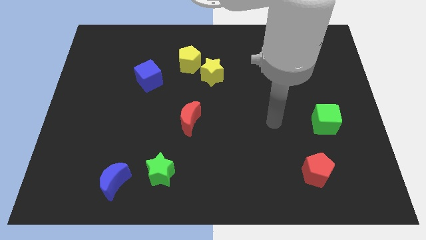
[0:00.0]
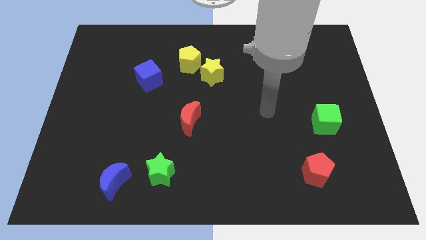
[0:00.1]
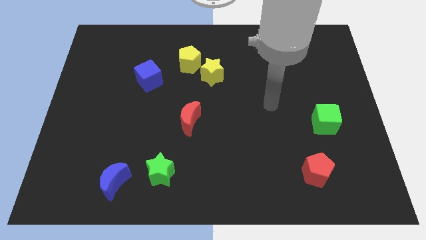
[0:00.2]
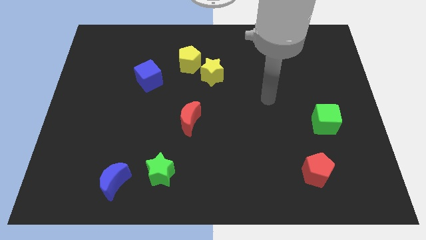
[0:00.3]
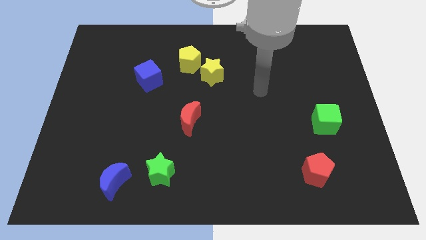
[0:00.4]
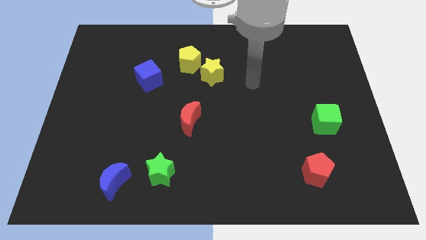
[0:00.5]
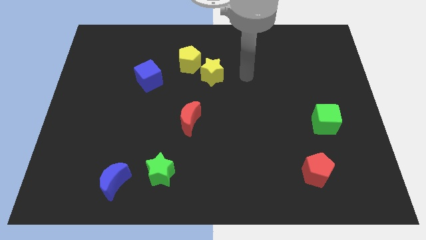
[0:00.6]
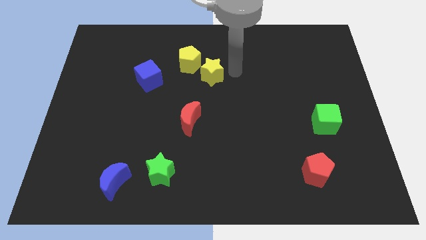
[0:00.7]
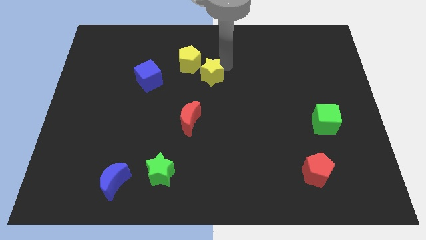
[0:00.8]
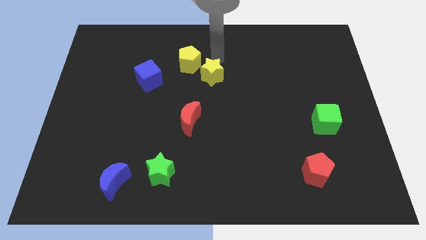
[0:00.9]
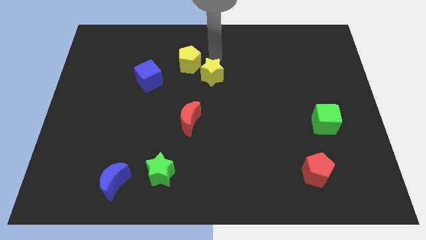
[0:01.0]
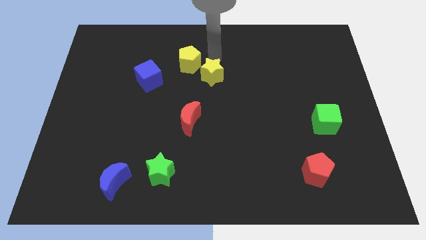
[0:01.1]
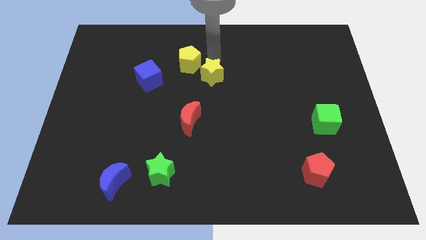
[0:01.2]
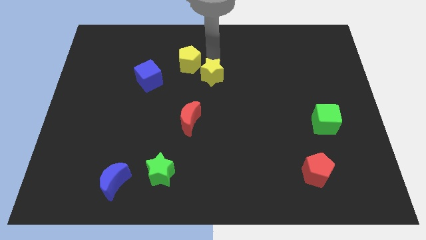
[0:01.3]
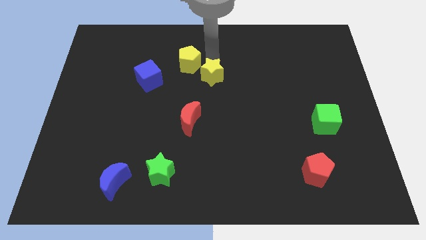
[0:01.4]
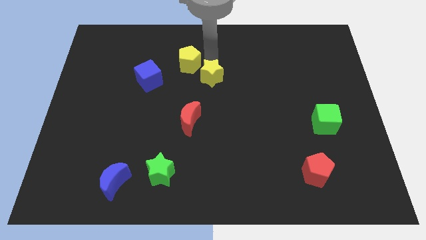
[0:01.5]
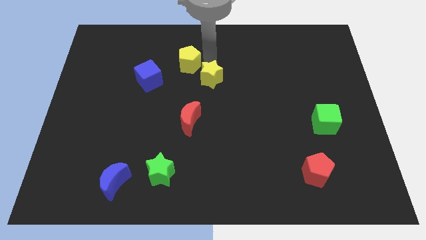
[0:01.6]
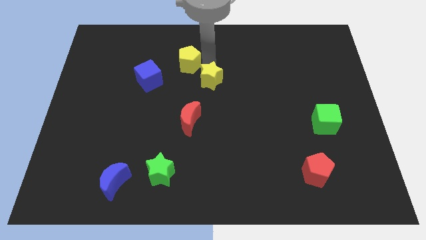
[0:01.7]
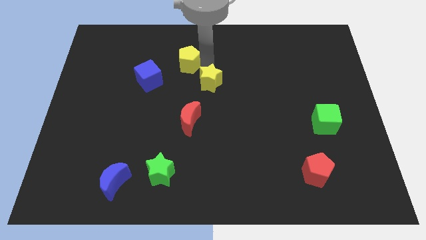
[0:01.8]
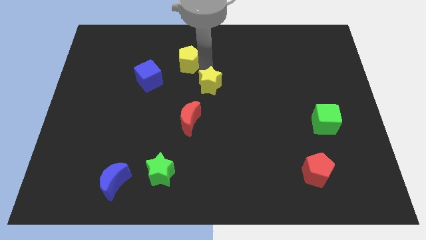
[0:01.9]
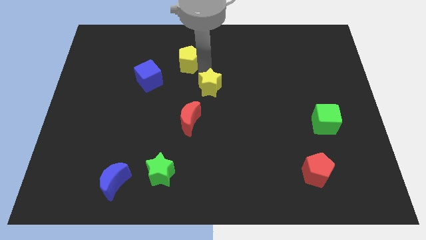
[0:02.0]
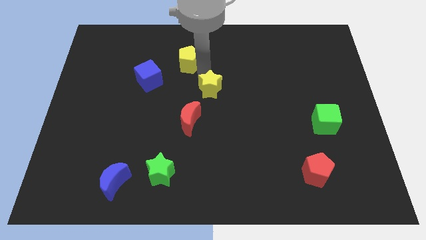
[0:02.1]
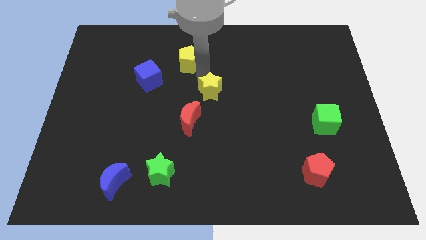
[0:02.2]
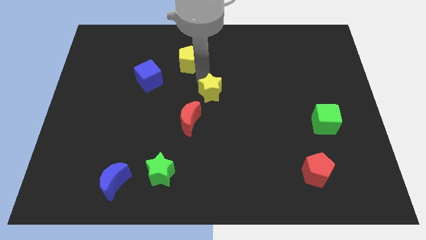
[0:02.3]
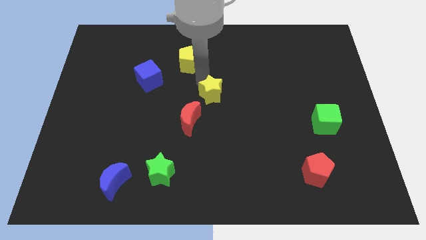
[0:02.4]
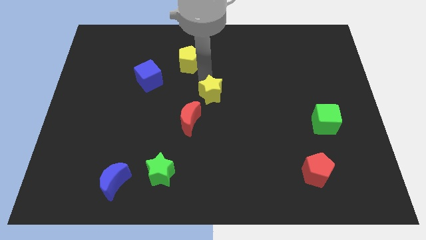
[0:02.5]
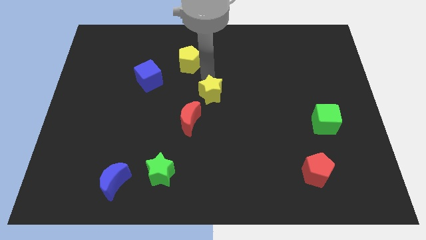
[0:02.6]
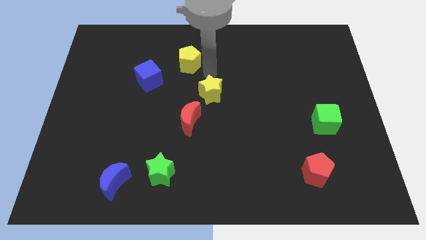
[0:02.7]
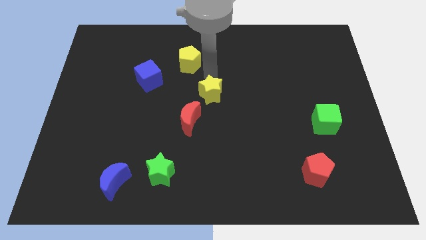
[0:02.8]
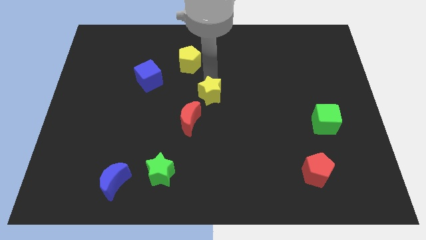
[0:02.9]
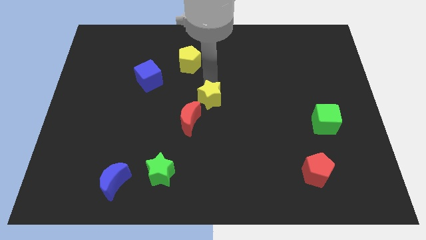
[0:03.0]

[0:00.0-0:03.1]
move the yellow star downwards slightly

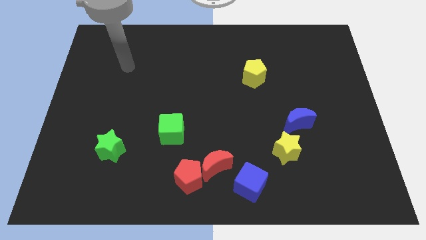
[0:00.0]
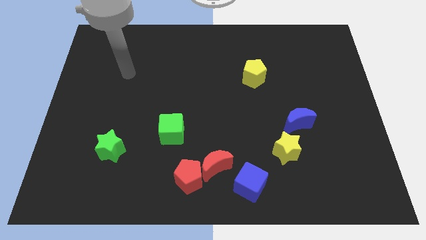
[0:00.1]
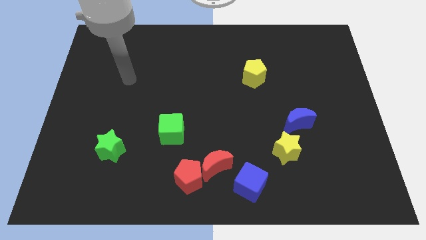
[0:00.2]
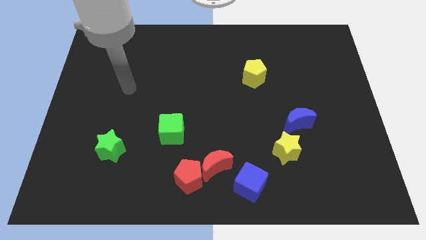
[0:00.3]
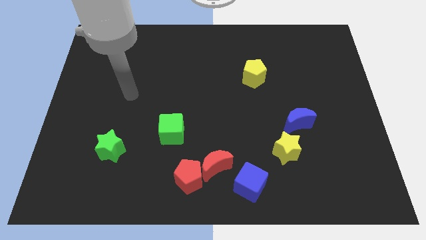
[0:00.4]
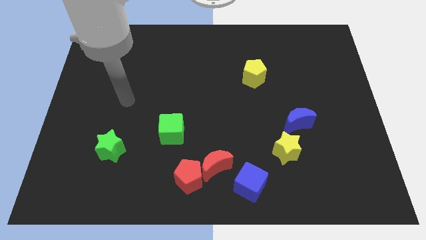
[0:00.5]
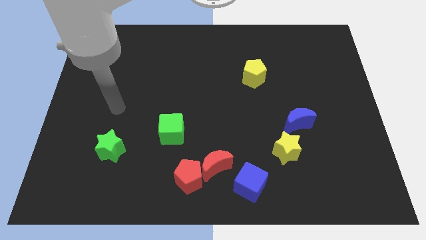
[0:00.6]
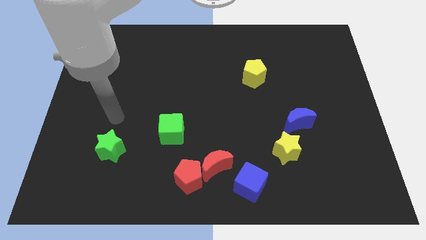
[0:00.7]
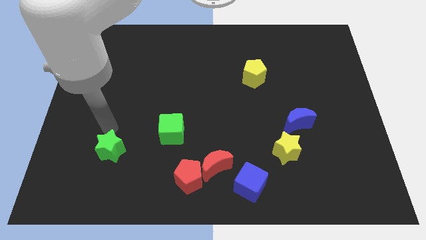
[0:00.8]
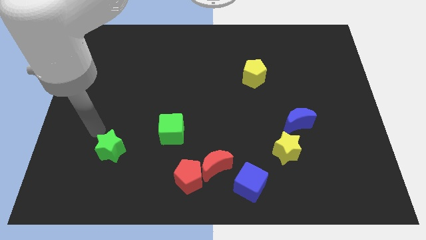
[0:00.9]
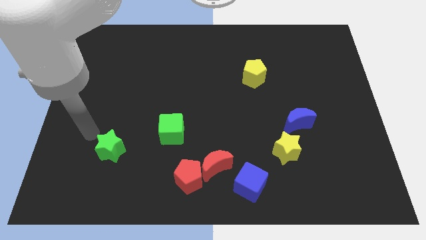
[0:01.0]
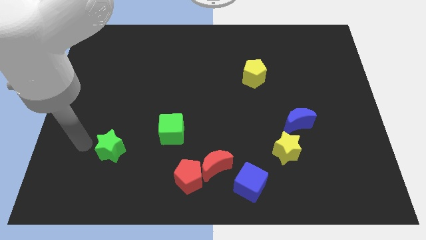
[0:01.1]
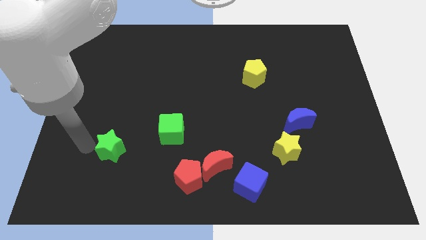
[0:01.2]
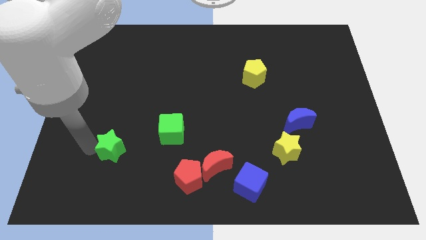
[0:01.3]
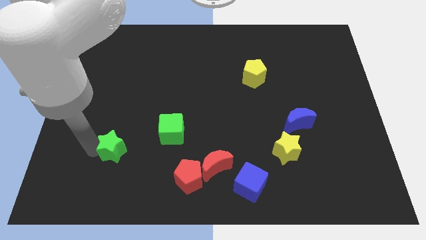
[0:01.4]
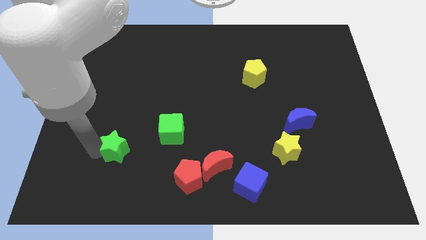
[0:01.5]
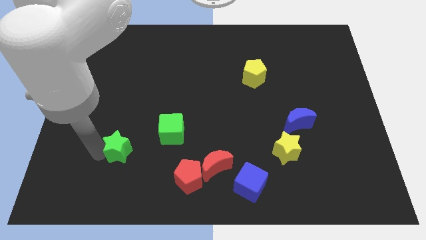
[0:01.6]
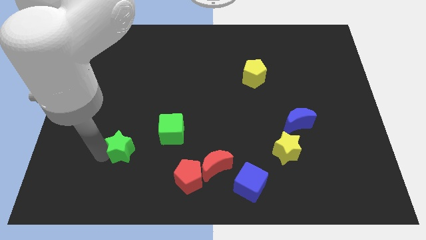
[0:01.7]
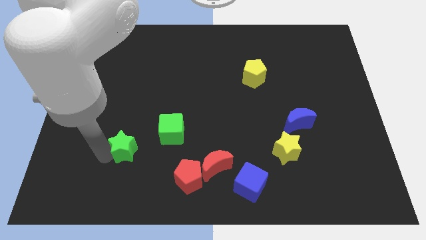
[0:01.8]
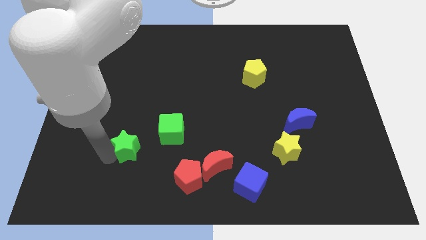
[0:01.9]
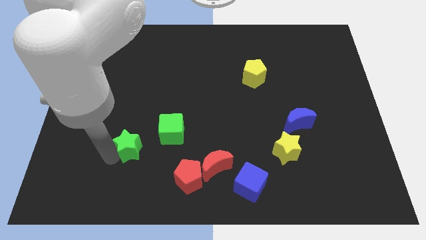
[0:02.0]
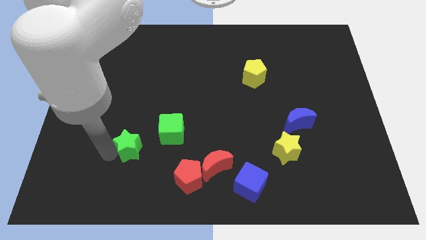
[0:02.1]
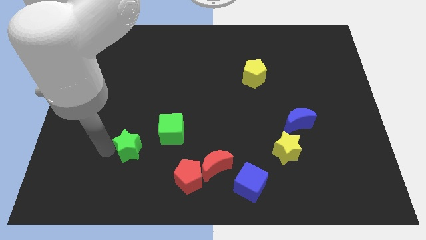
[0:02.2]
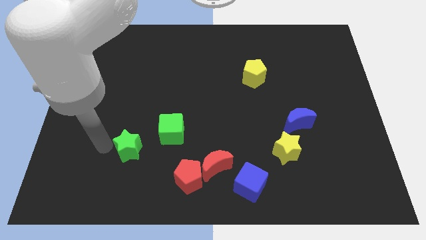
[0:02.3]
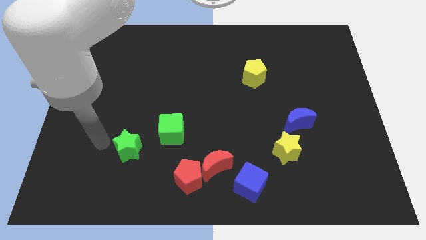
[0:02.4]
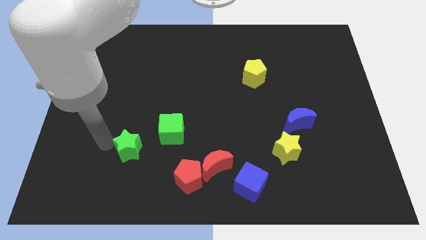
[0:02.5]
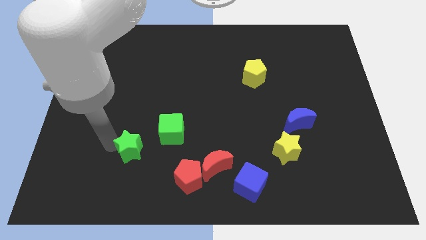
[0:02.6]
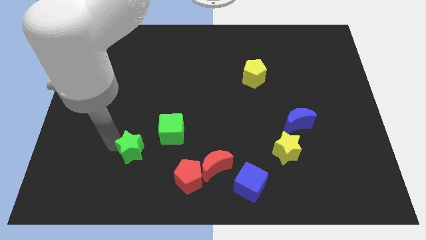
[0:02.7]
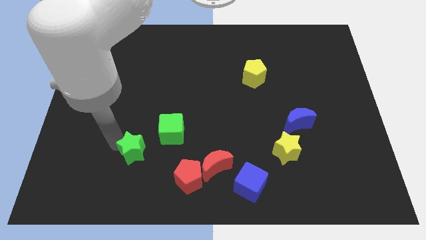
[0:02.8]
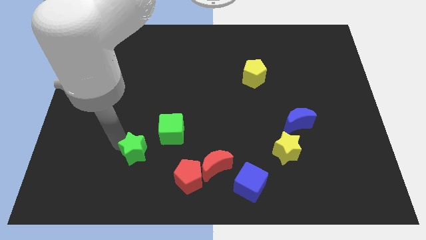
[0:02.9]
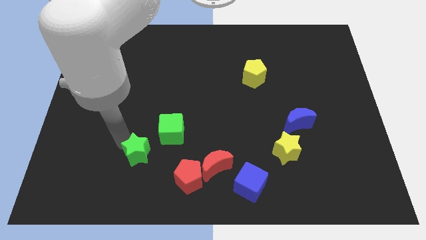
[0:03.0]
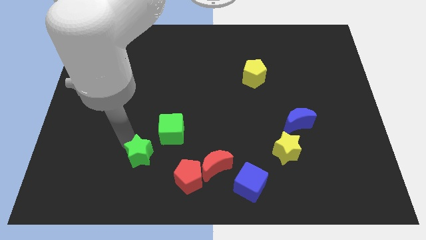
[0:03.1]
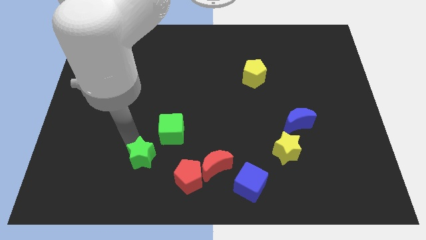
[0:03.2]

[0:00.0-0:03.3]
move the green star to the right a bit

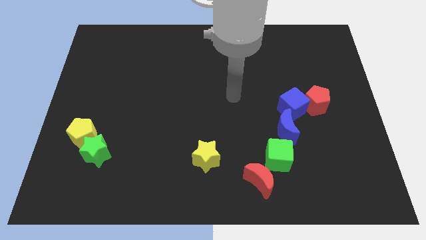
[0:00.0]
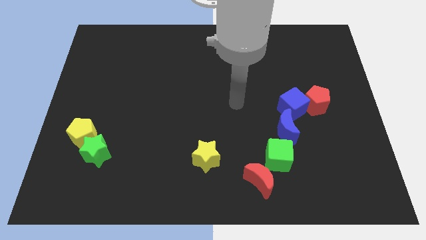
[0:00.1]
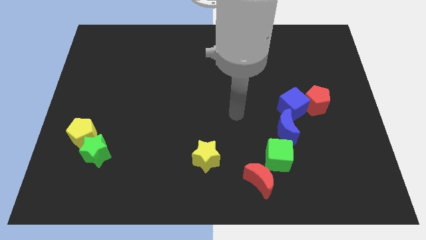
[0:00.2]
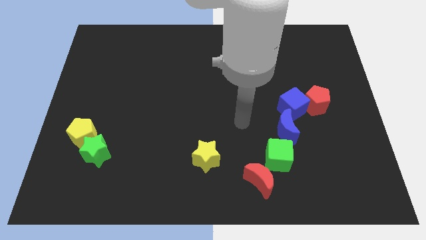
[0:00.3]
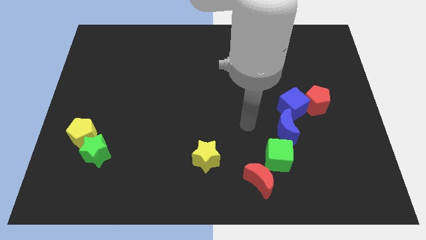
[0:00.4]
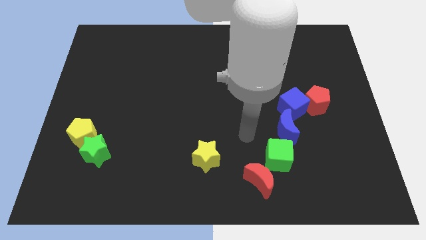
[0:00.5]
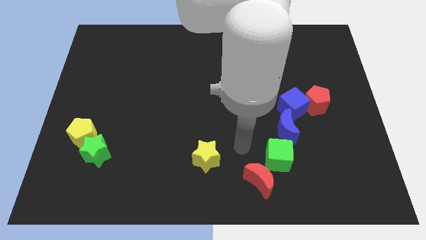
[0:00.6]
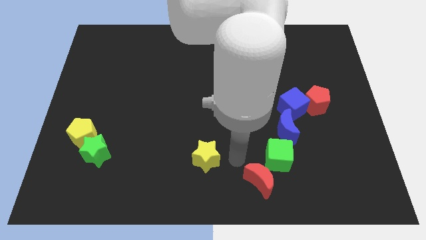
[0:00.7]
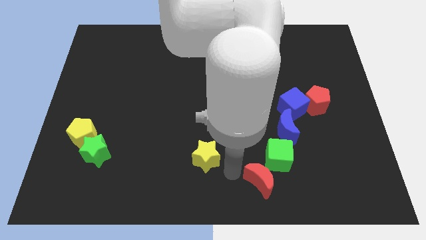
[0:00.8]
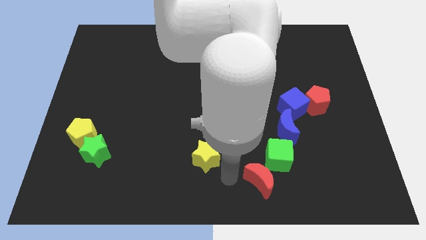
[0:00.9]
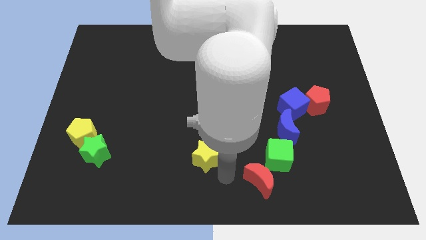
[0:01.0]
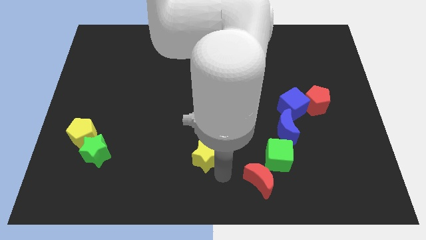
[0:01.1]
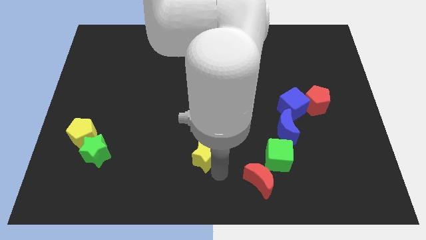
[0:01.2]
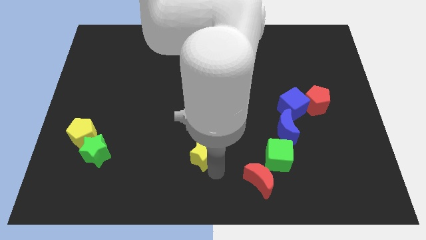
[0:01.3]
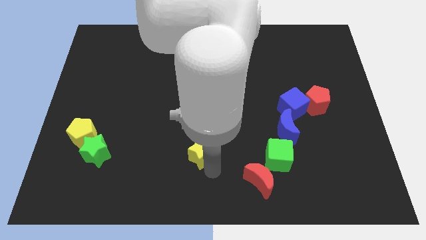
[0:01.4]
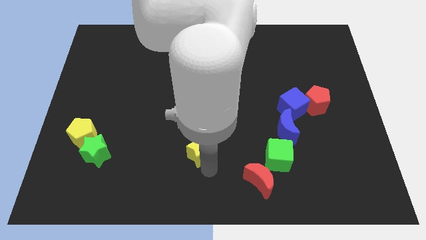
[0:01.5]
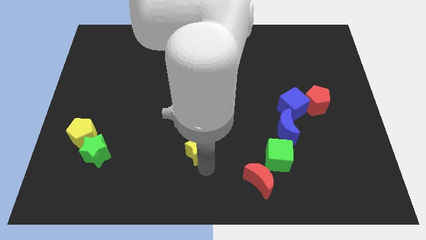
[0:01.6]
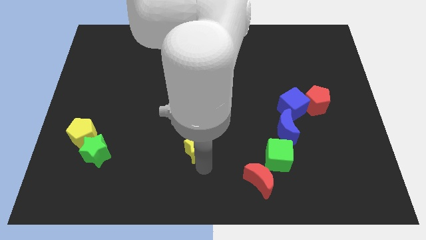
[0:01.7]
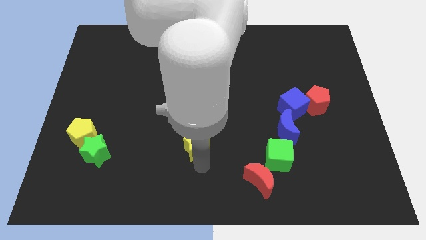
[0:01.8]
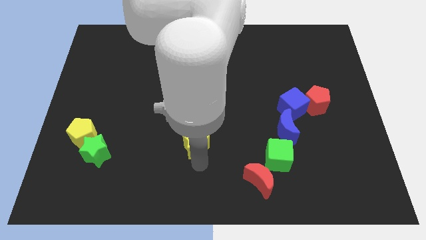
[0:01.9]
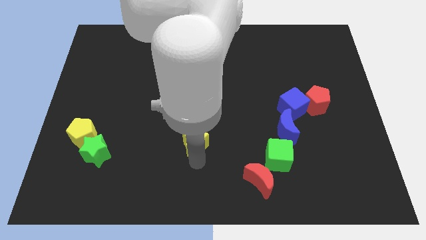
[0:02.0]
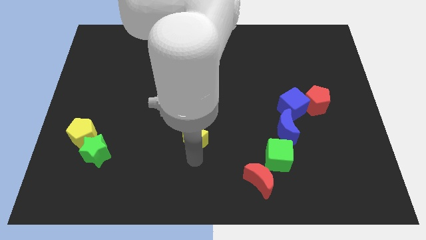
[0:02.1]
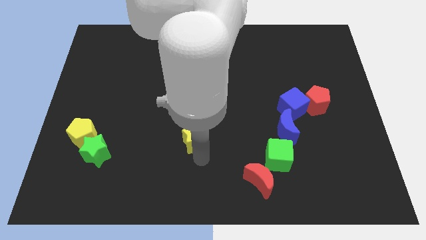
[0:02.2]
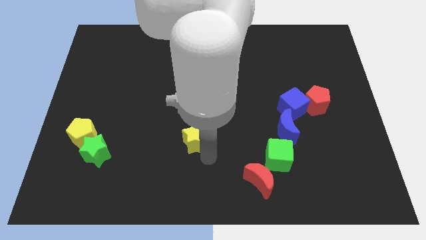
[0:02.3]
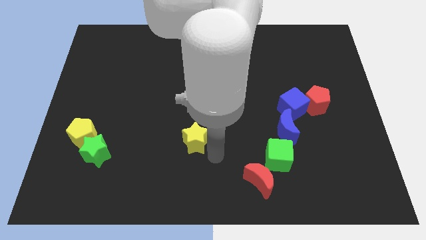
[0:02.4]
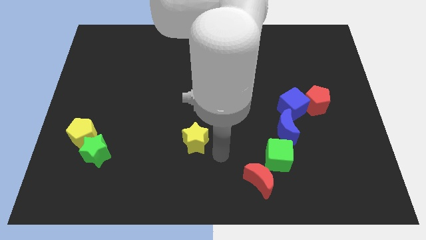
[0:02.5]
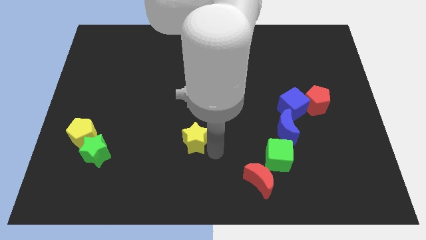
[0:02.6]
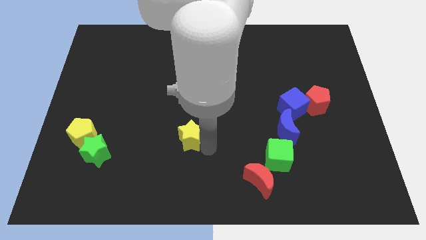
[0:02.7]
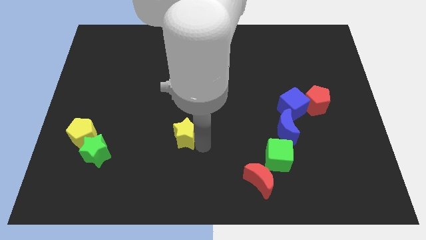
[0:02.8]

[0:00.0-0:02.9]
push the yellow star a little up and then left
